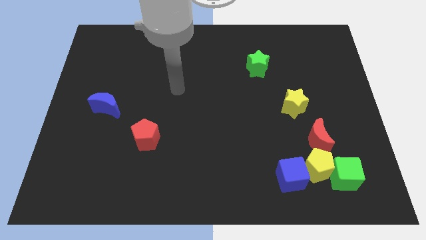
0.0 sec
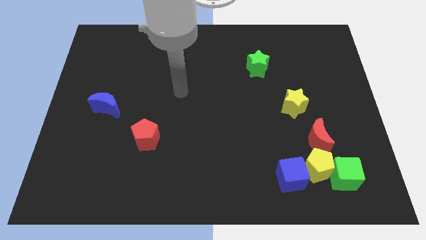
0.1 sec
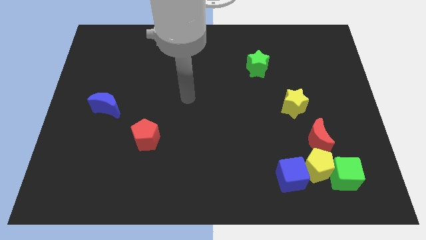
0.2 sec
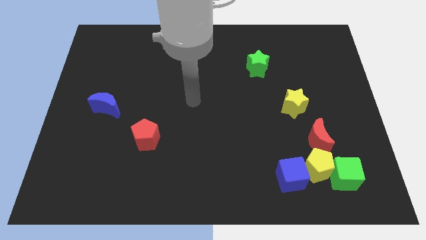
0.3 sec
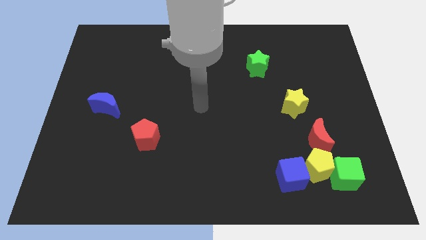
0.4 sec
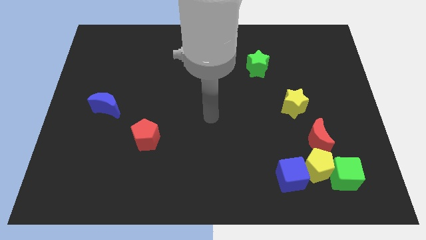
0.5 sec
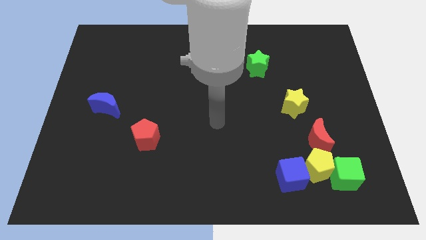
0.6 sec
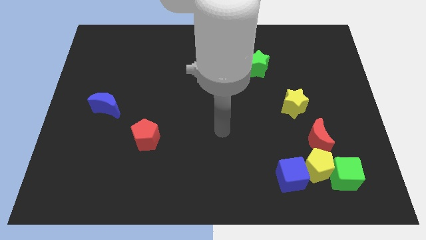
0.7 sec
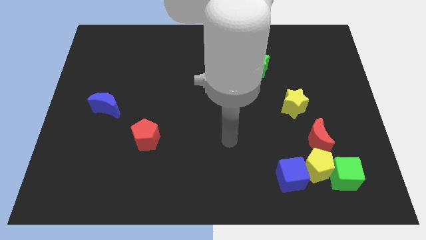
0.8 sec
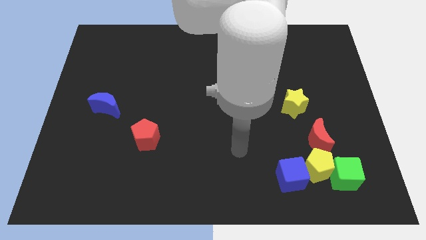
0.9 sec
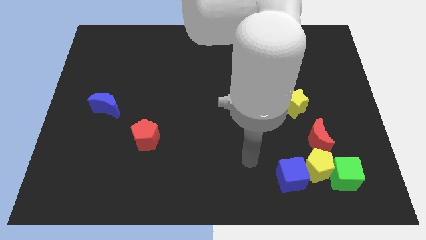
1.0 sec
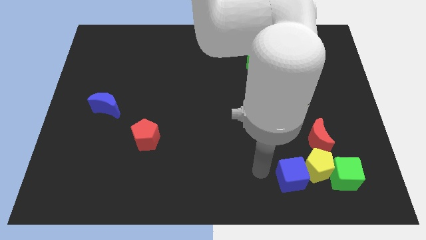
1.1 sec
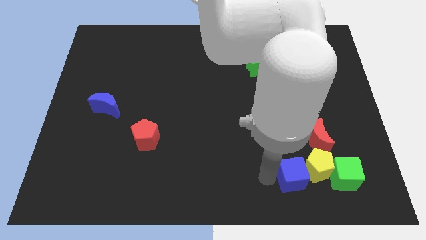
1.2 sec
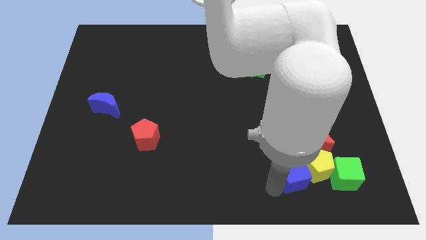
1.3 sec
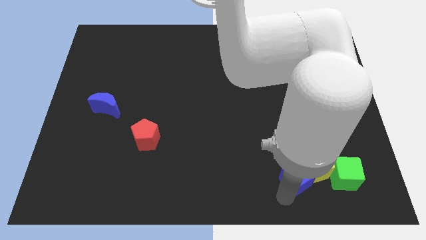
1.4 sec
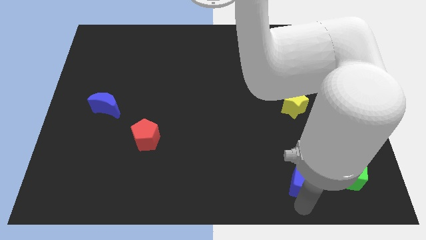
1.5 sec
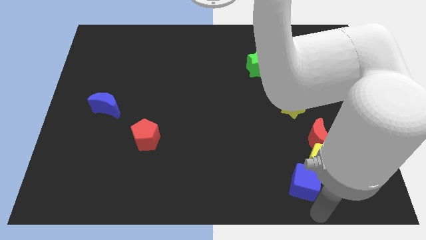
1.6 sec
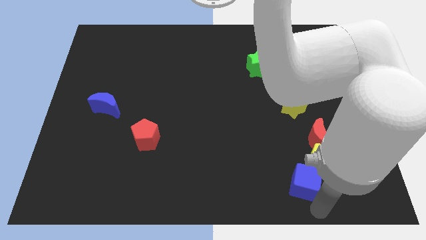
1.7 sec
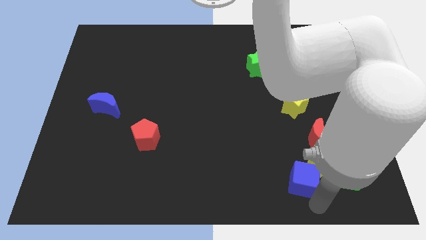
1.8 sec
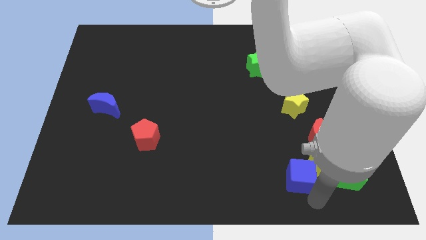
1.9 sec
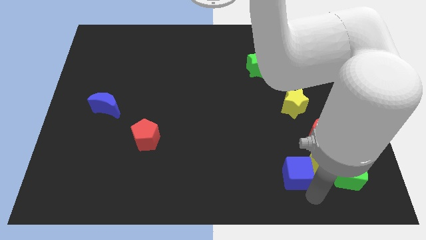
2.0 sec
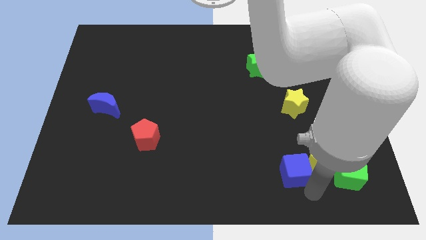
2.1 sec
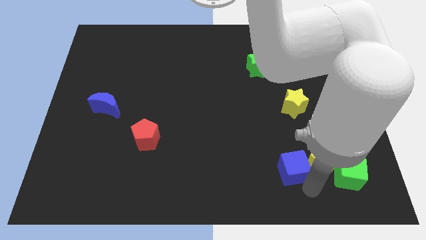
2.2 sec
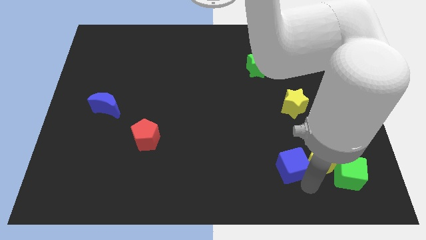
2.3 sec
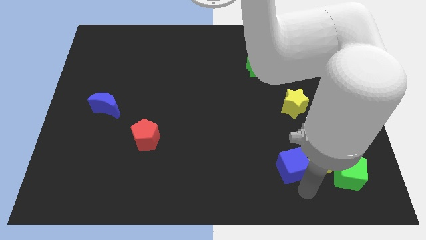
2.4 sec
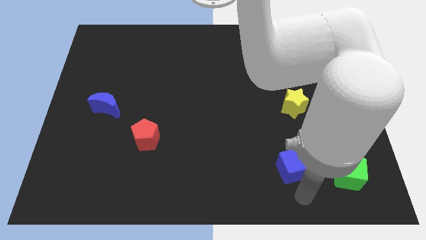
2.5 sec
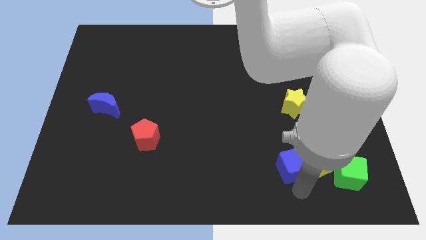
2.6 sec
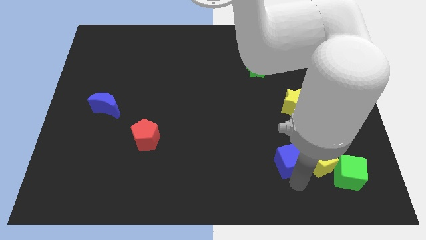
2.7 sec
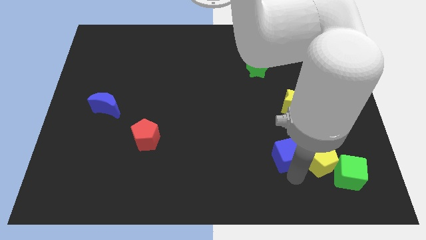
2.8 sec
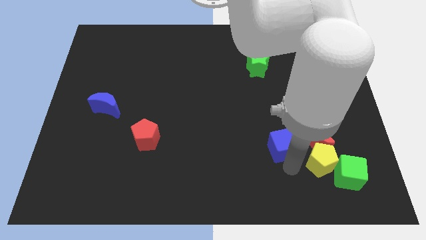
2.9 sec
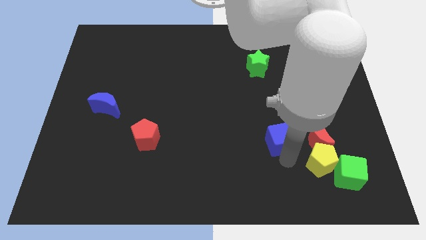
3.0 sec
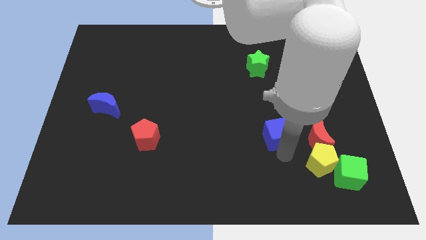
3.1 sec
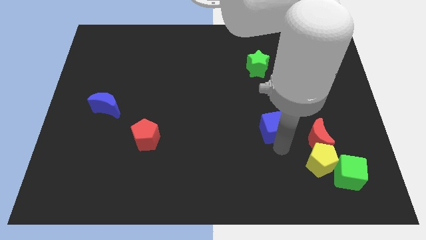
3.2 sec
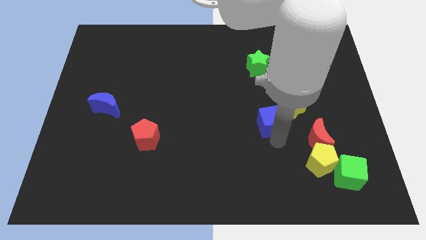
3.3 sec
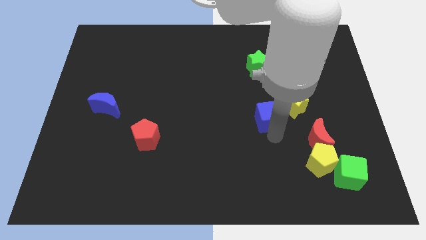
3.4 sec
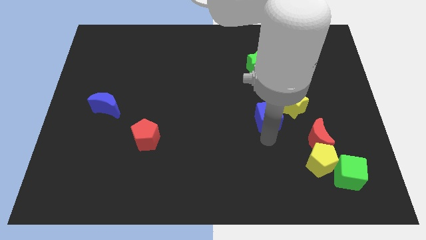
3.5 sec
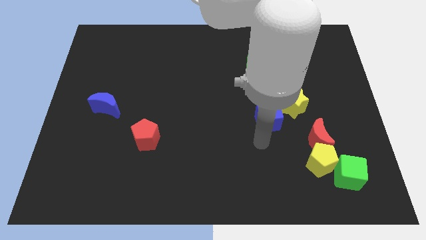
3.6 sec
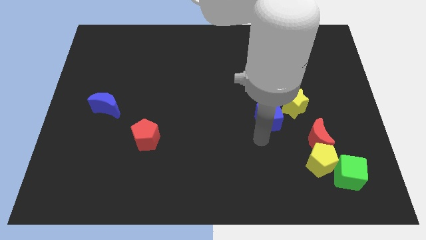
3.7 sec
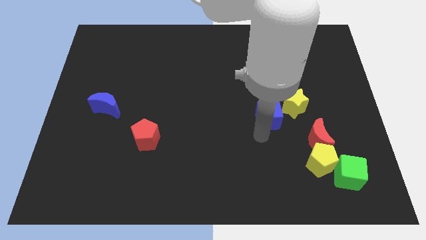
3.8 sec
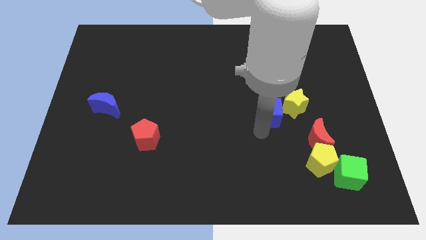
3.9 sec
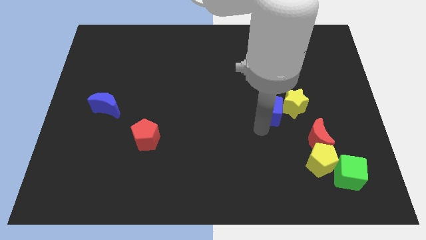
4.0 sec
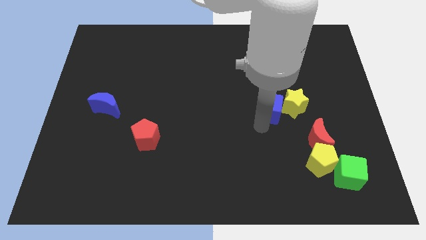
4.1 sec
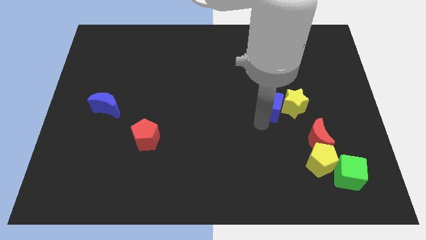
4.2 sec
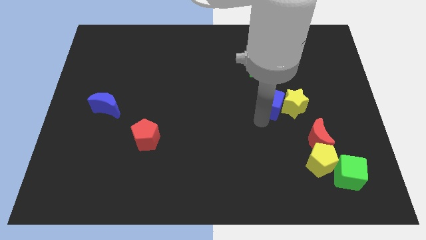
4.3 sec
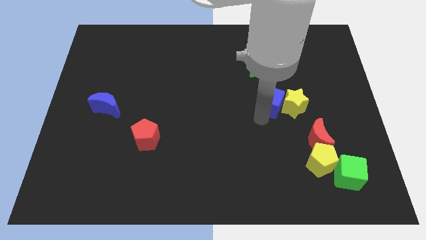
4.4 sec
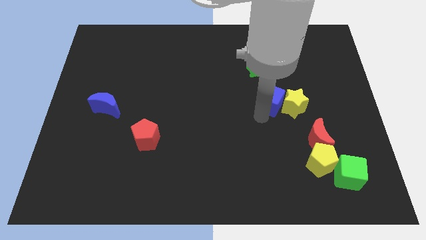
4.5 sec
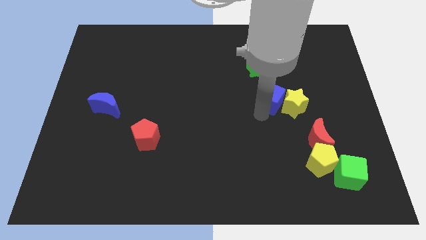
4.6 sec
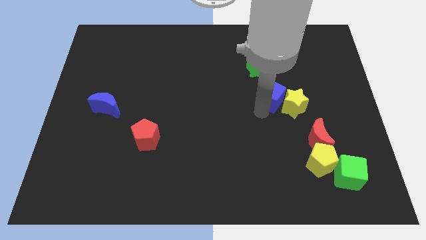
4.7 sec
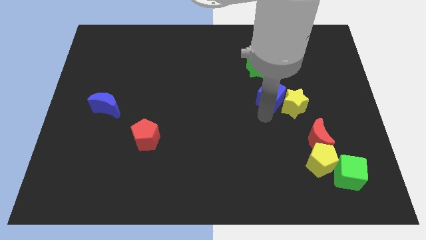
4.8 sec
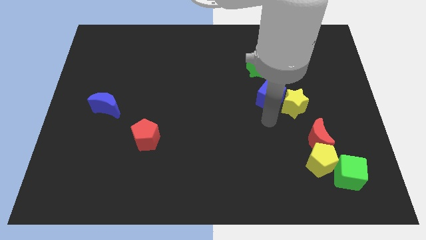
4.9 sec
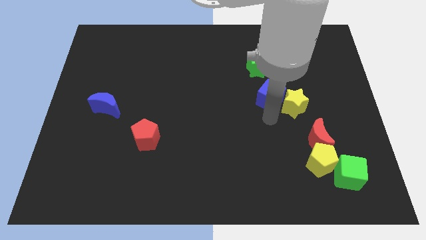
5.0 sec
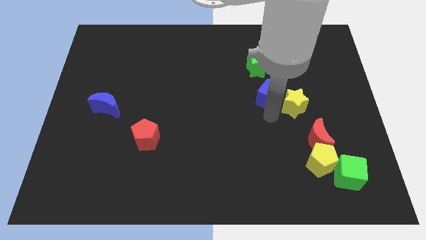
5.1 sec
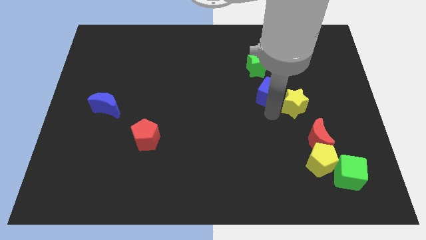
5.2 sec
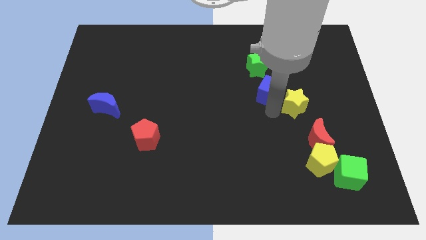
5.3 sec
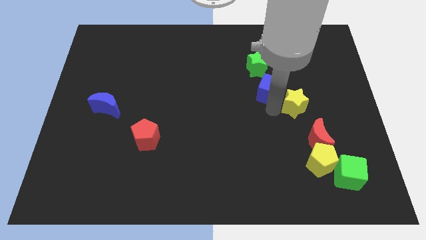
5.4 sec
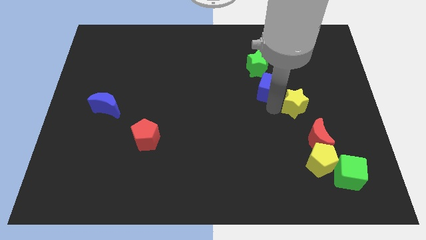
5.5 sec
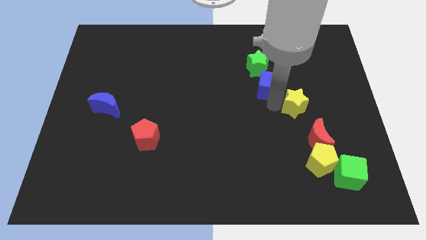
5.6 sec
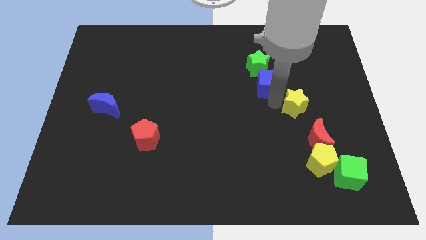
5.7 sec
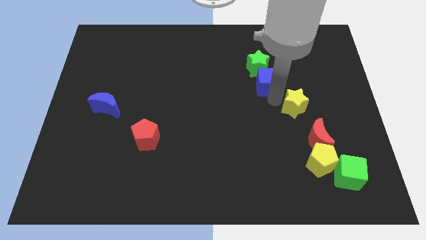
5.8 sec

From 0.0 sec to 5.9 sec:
move the blue cube next to the green star

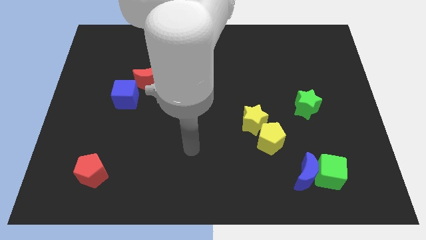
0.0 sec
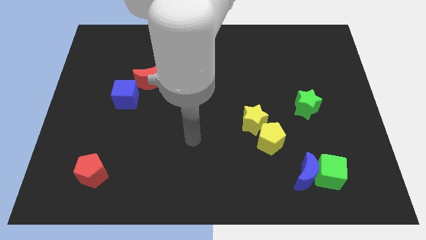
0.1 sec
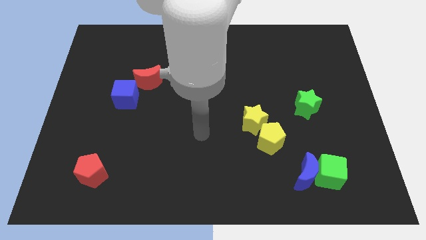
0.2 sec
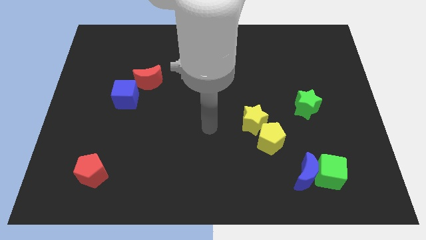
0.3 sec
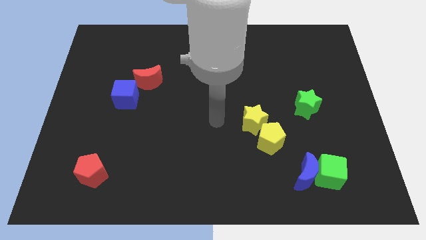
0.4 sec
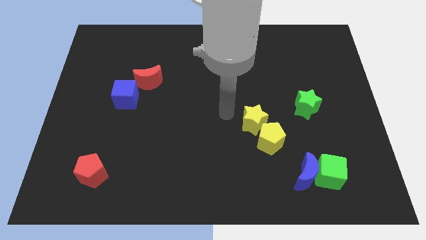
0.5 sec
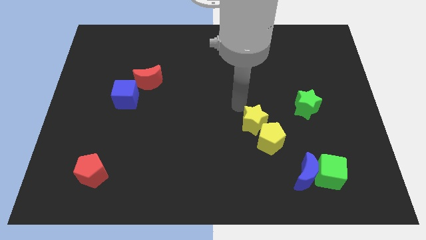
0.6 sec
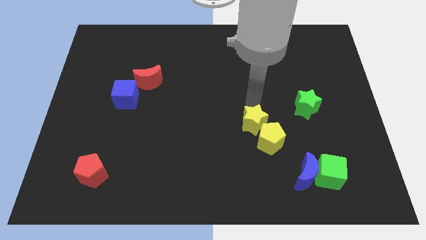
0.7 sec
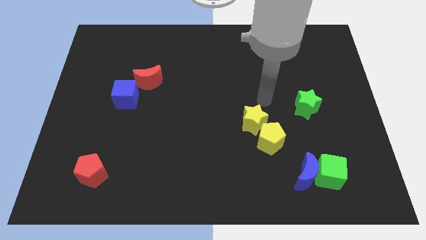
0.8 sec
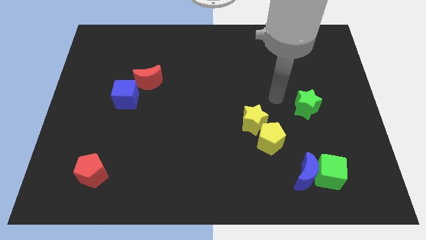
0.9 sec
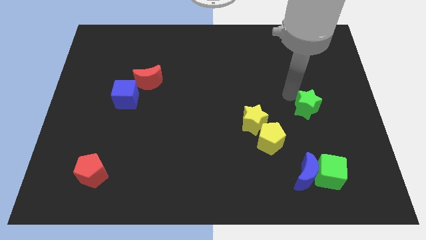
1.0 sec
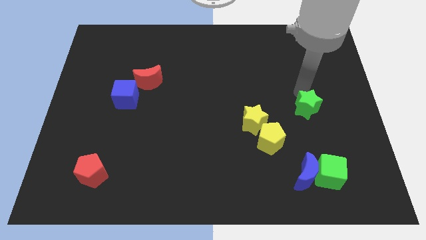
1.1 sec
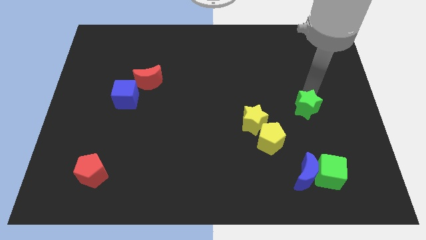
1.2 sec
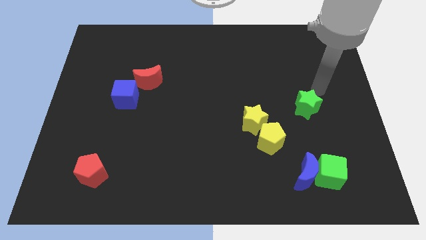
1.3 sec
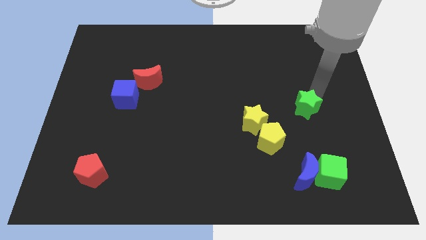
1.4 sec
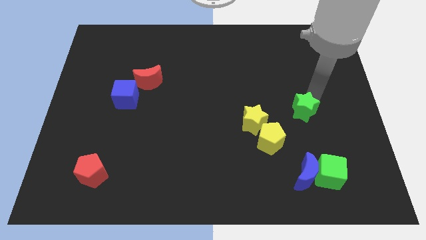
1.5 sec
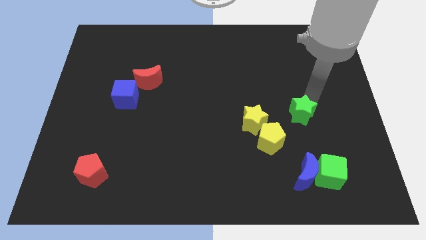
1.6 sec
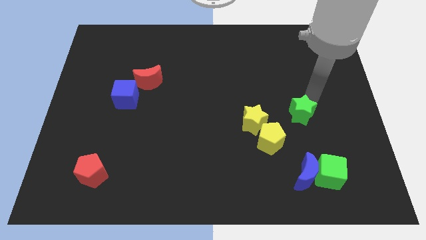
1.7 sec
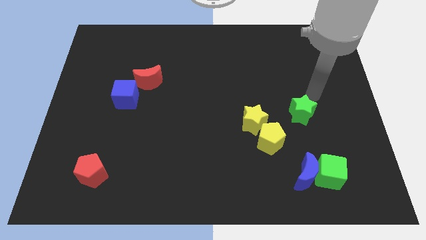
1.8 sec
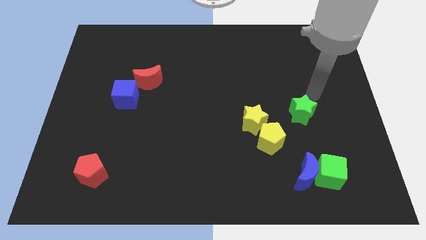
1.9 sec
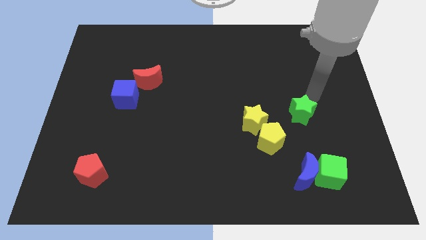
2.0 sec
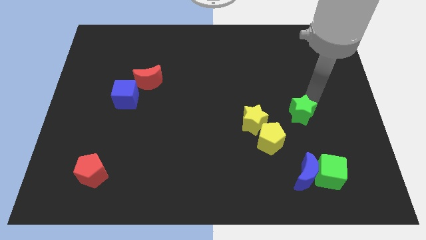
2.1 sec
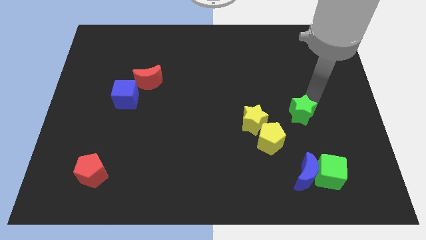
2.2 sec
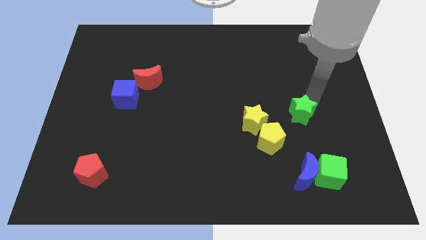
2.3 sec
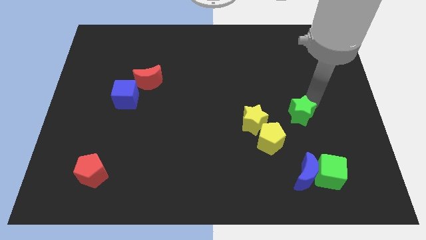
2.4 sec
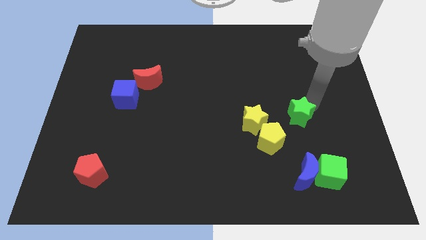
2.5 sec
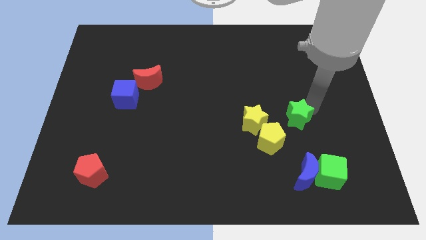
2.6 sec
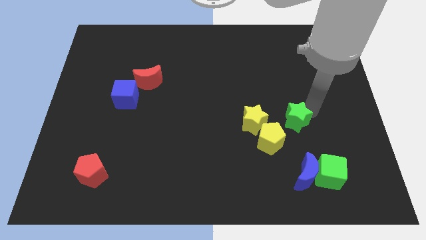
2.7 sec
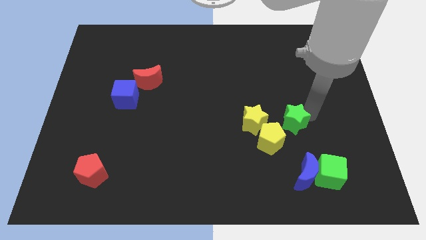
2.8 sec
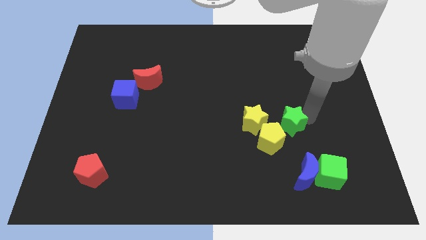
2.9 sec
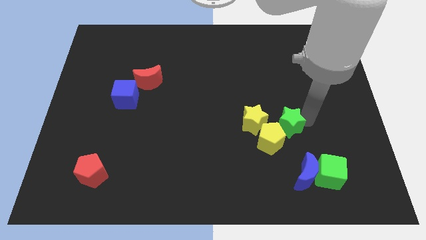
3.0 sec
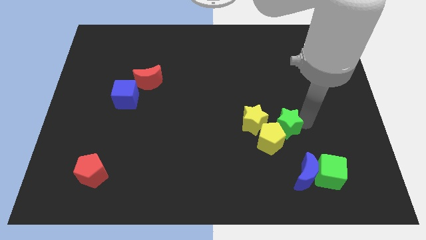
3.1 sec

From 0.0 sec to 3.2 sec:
slide the green star close to the yellow pentagon
